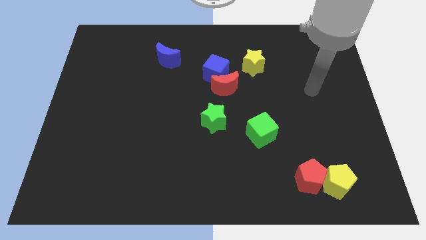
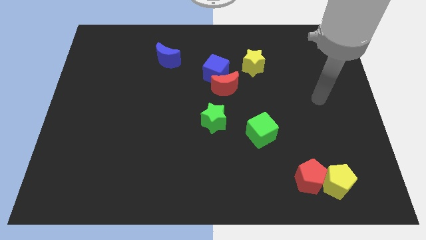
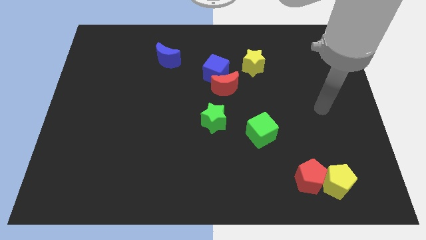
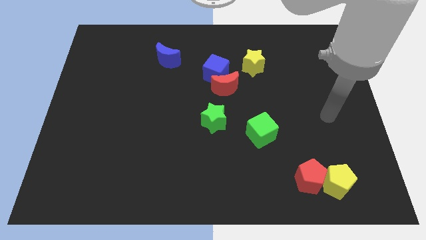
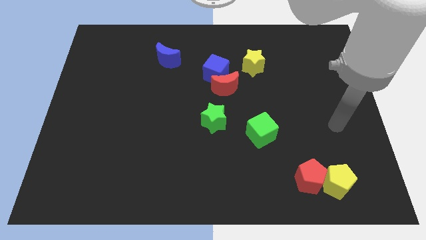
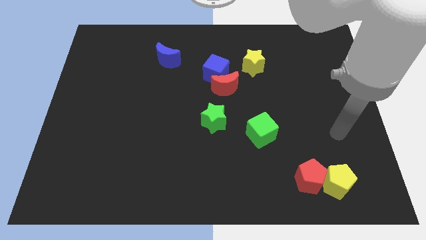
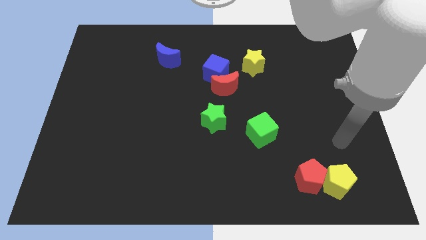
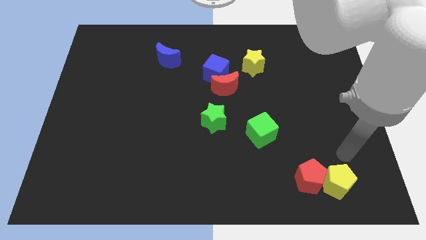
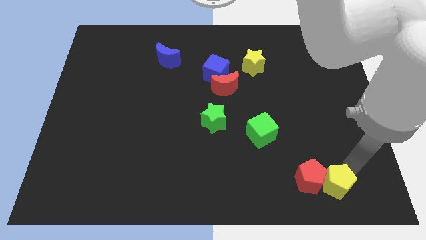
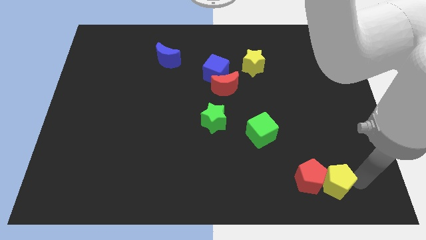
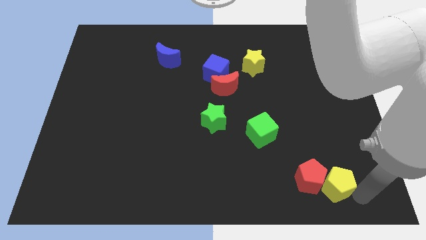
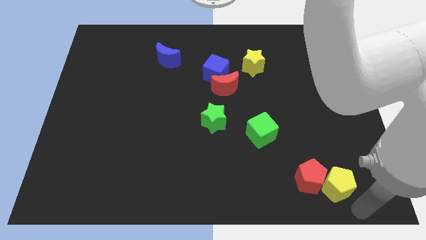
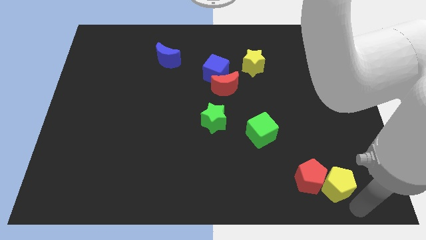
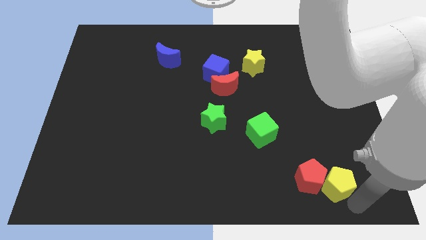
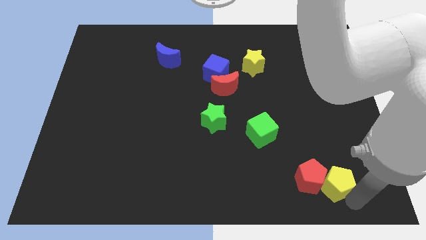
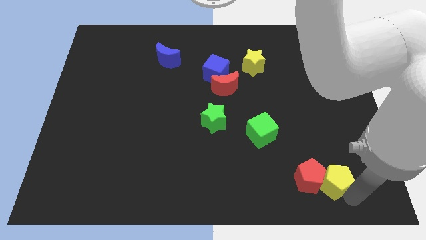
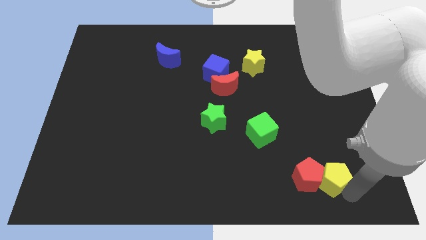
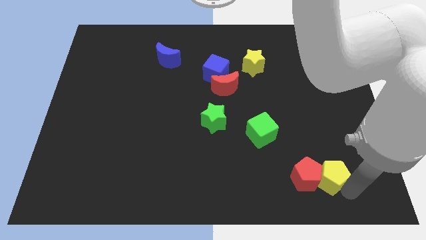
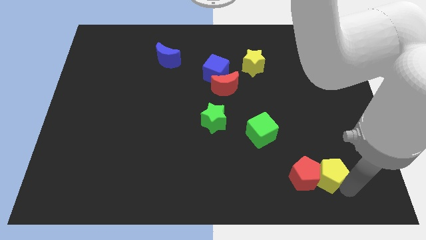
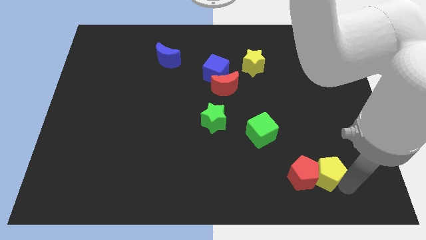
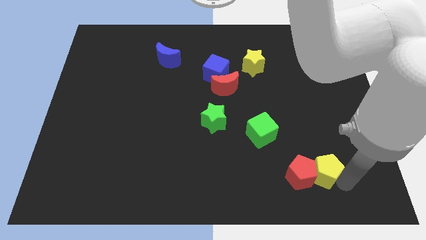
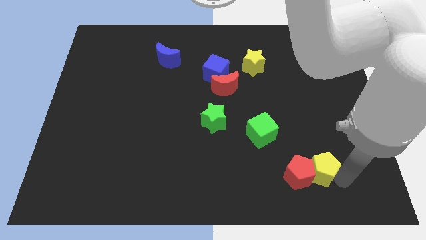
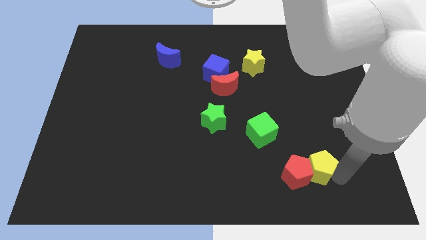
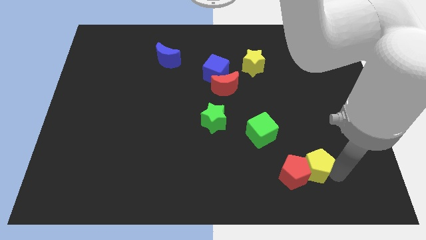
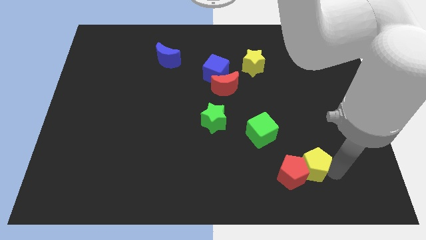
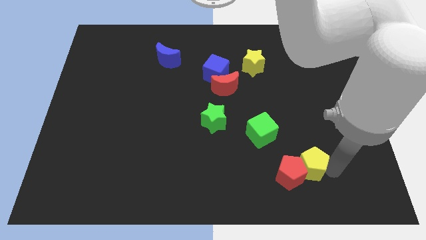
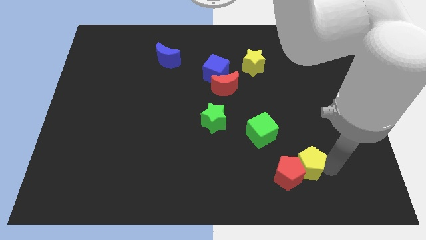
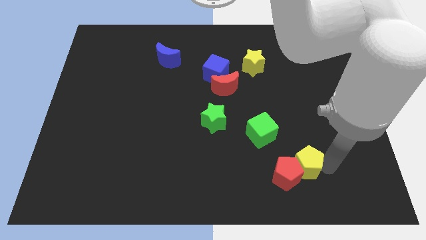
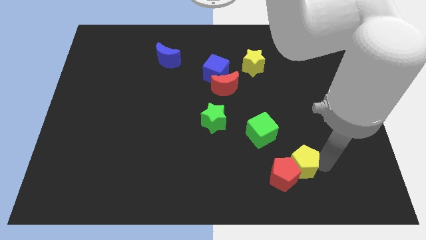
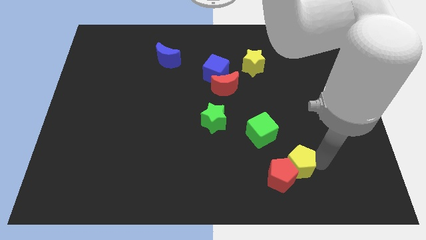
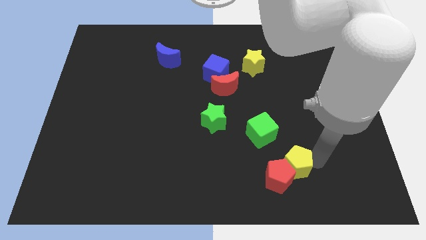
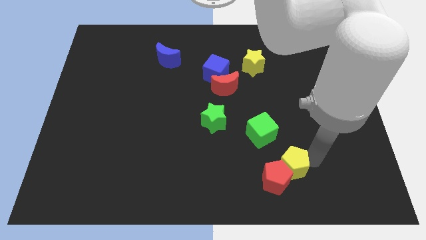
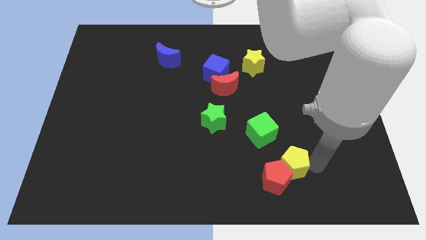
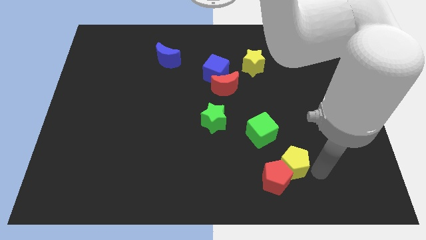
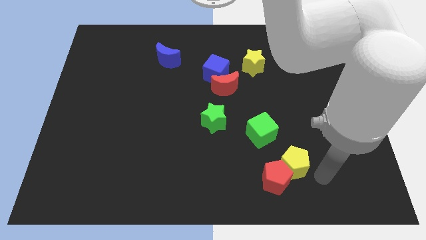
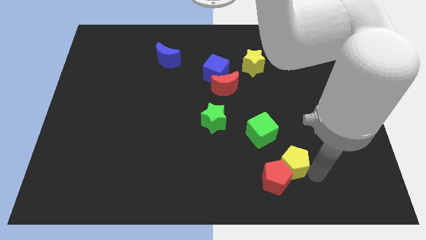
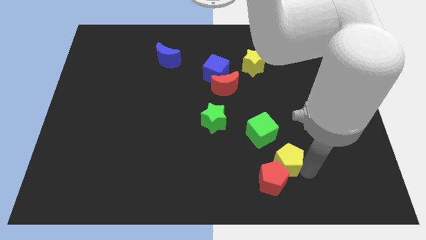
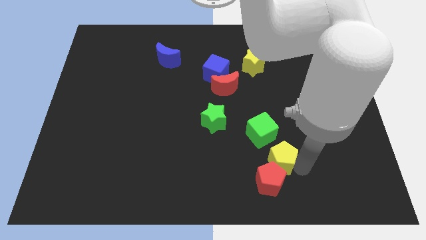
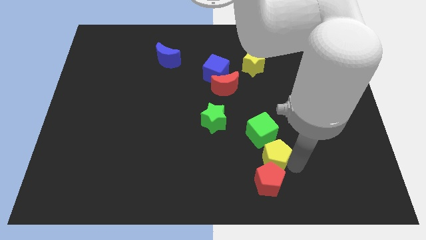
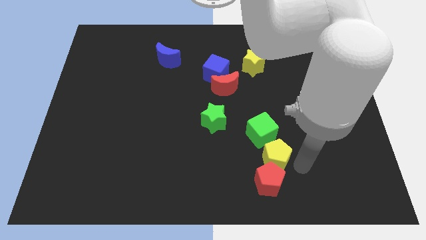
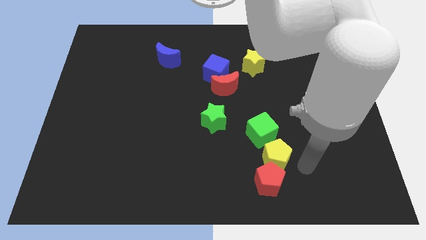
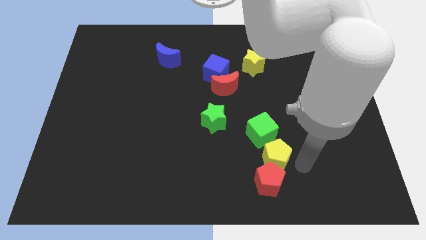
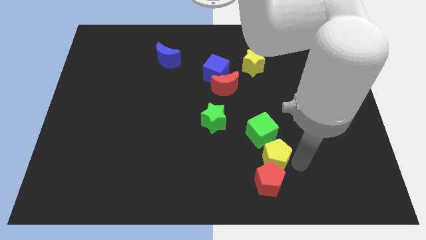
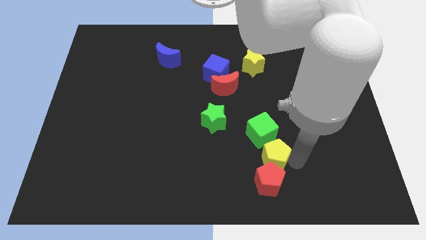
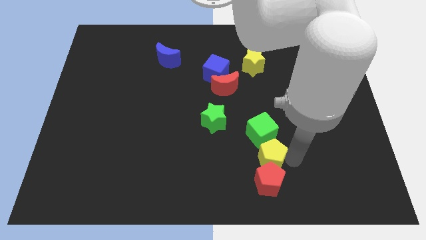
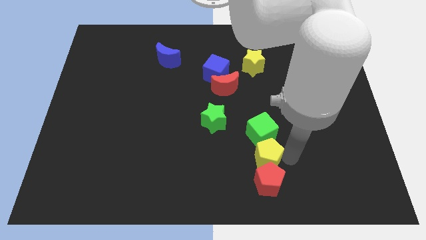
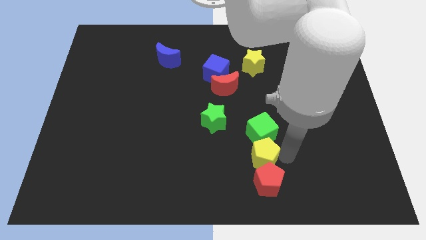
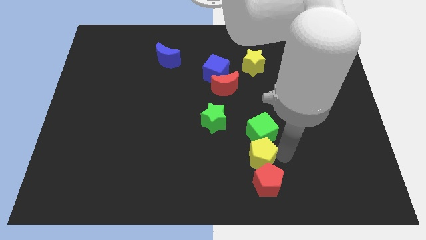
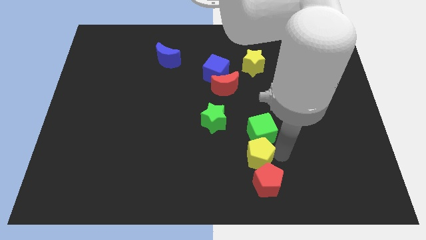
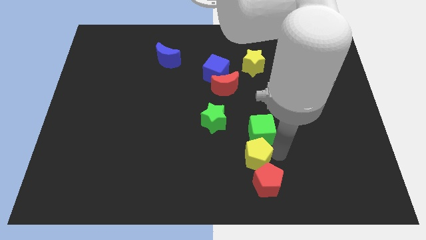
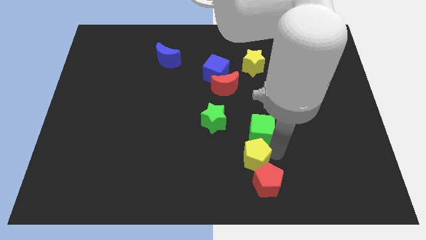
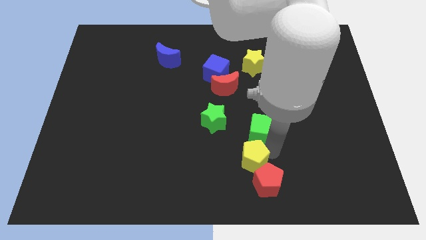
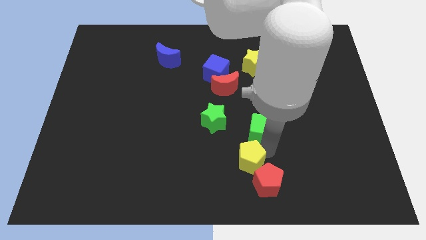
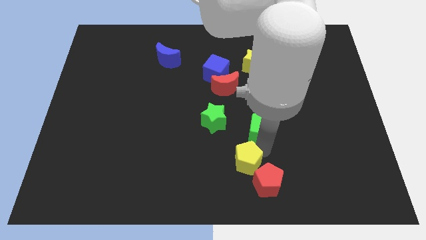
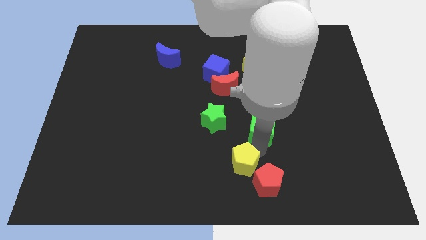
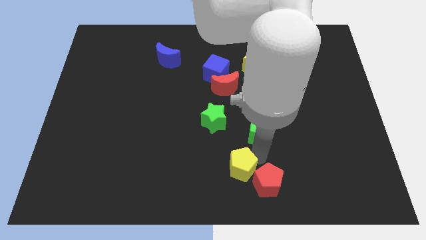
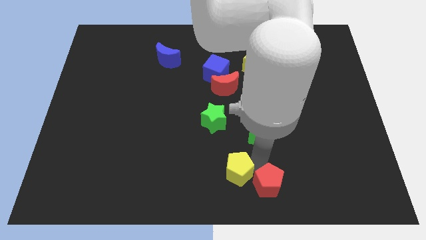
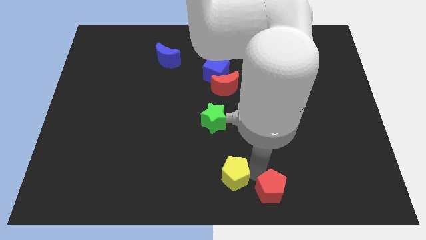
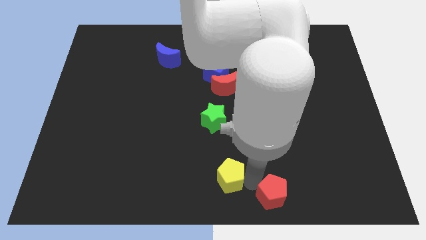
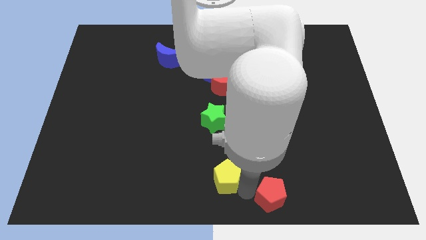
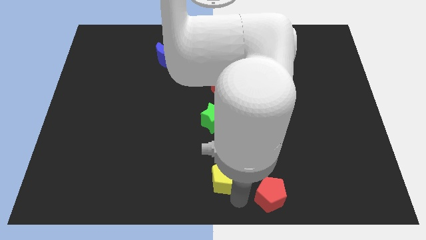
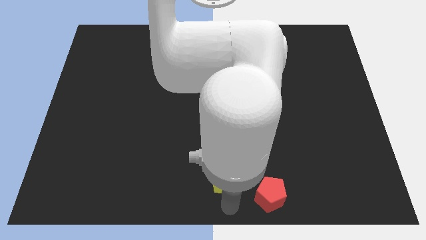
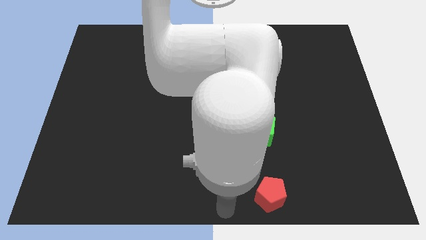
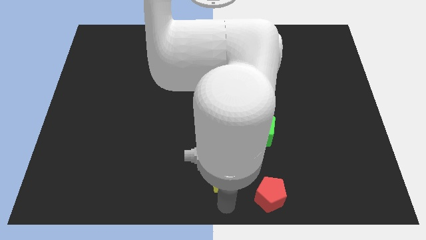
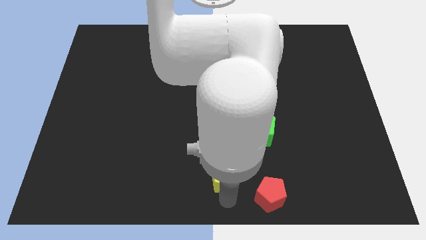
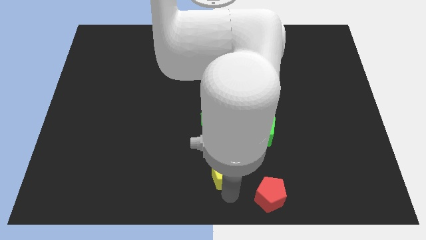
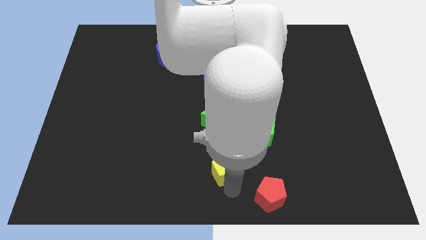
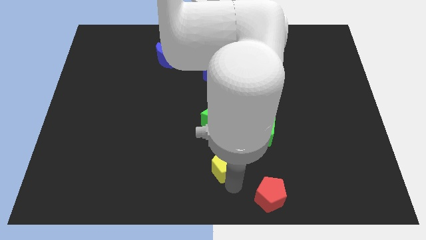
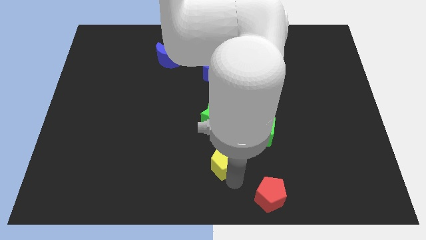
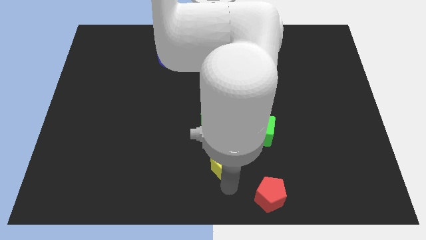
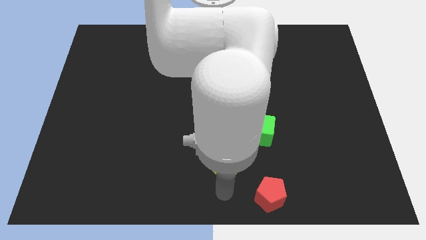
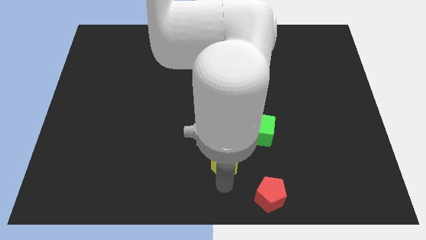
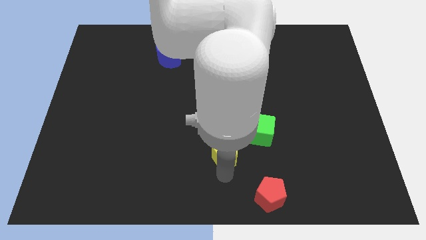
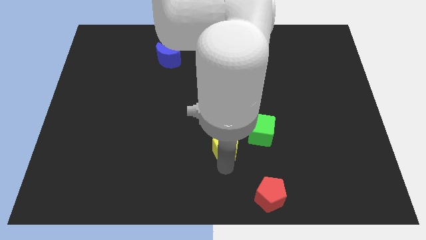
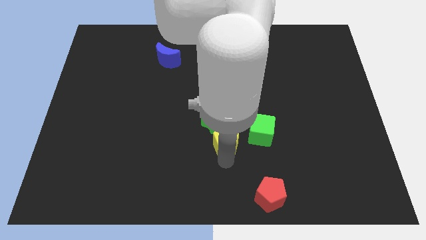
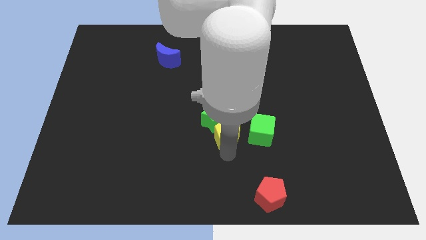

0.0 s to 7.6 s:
push the yellow pentagon close to the green star
